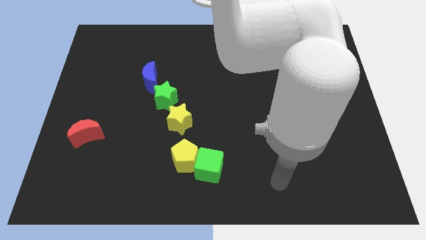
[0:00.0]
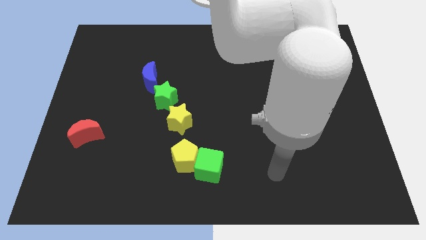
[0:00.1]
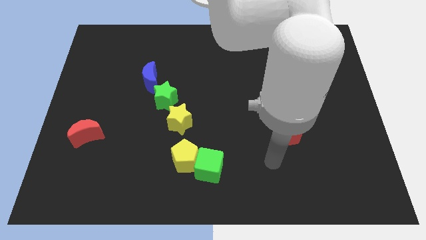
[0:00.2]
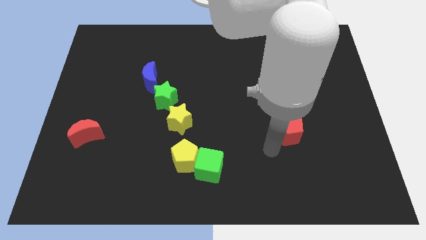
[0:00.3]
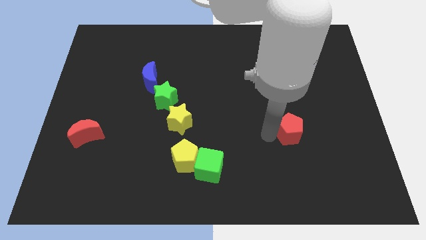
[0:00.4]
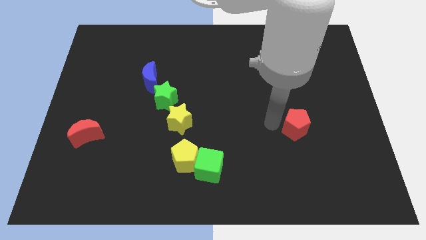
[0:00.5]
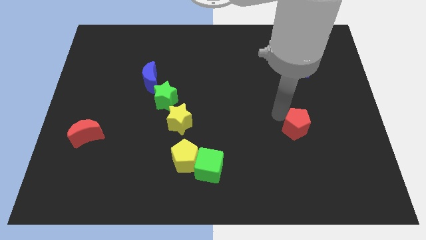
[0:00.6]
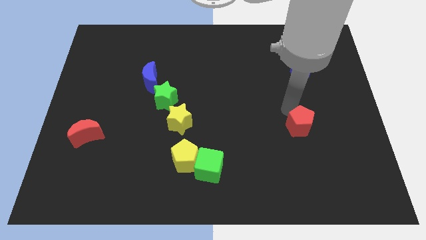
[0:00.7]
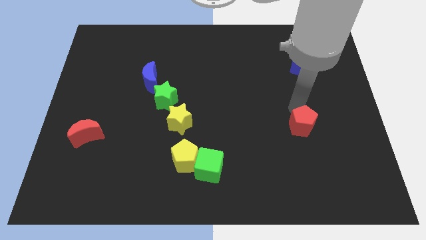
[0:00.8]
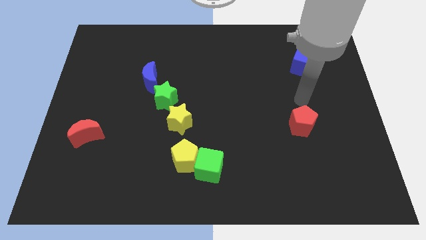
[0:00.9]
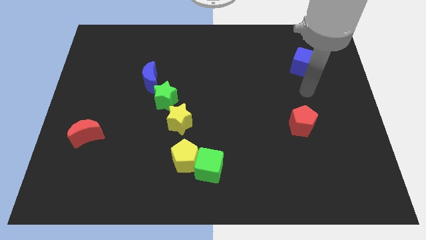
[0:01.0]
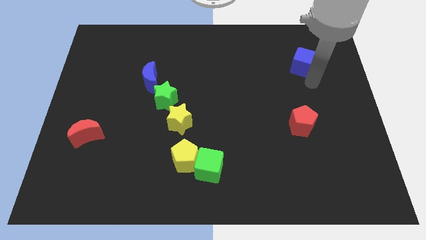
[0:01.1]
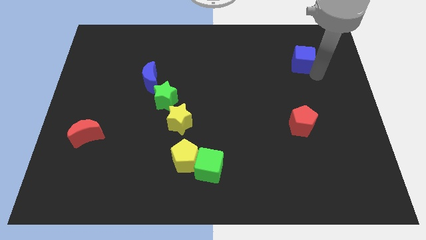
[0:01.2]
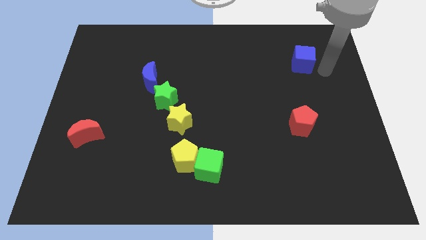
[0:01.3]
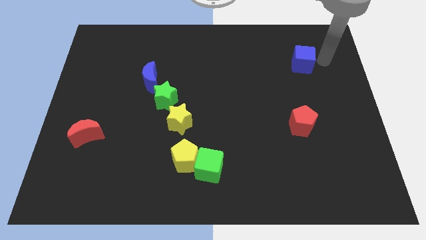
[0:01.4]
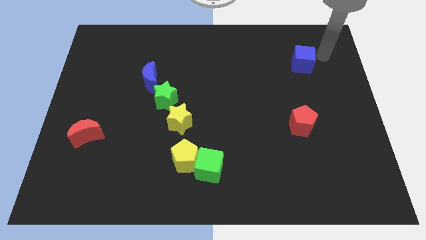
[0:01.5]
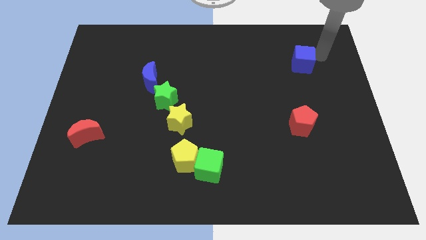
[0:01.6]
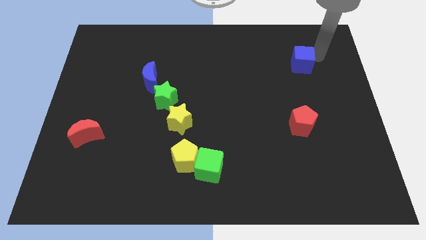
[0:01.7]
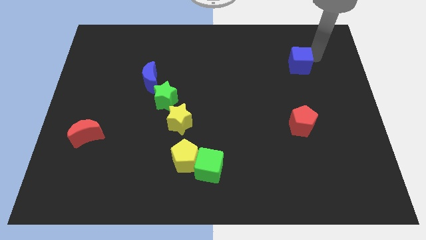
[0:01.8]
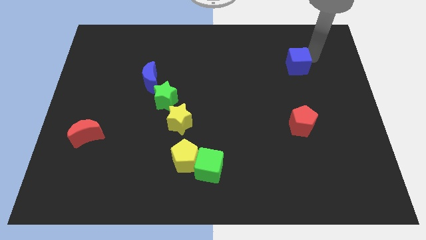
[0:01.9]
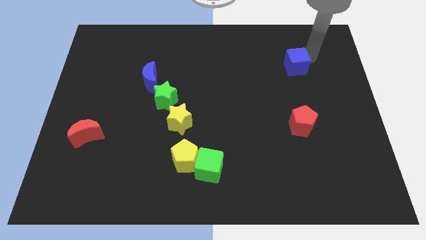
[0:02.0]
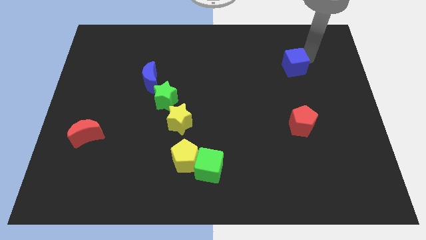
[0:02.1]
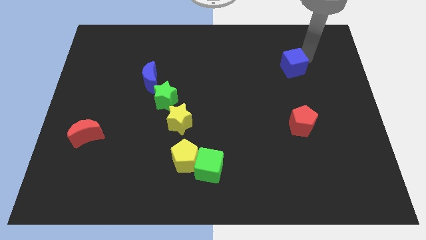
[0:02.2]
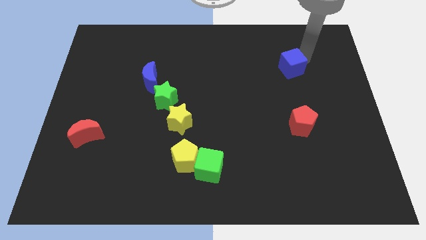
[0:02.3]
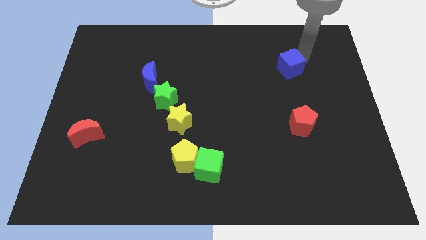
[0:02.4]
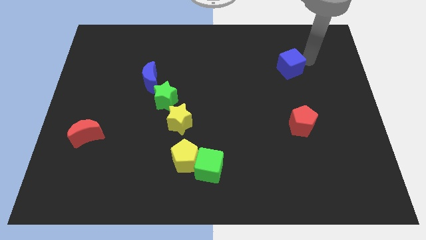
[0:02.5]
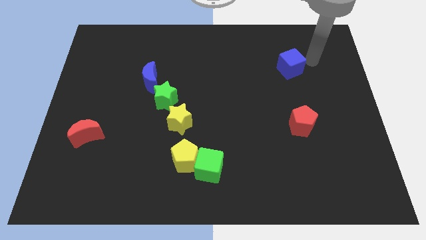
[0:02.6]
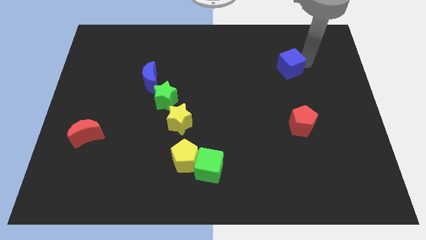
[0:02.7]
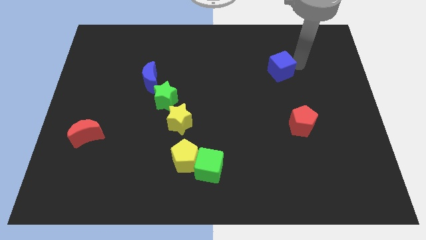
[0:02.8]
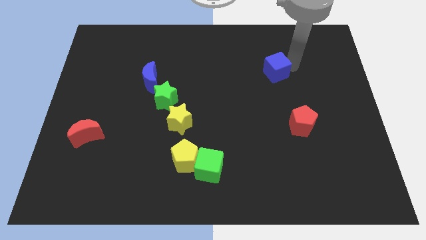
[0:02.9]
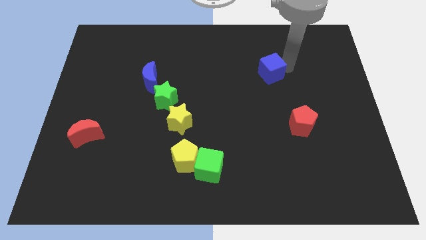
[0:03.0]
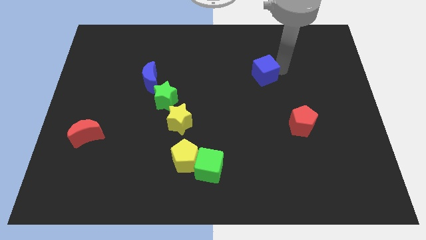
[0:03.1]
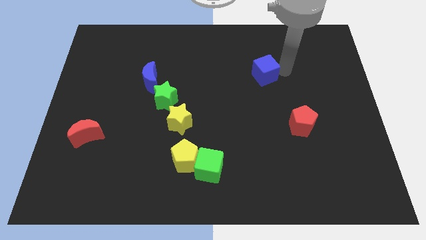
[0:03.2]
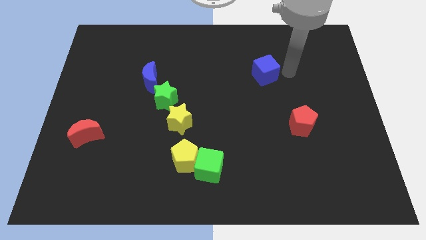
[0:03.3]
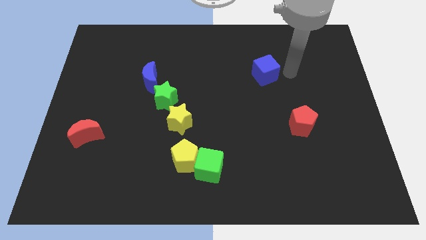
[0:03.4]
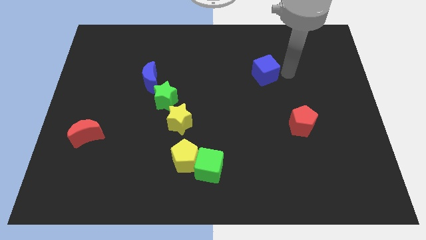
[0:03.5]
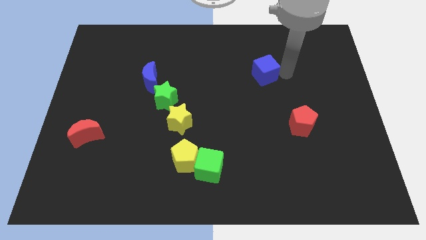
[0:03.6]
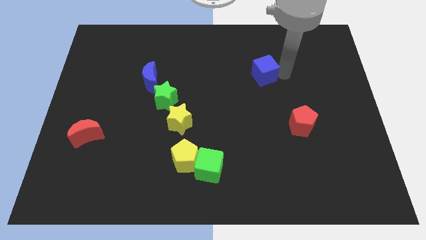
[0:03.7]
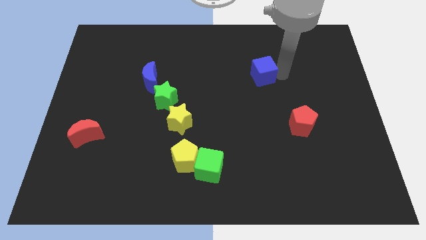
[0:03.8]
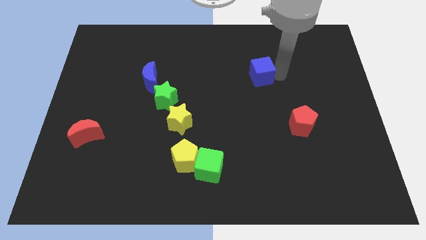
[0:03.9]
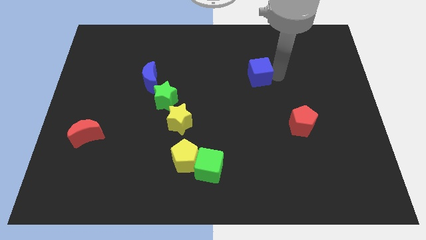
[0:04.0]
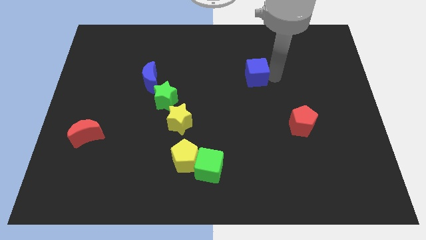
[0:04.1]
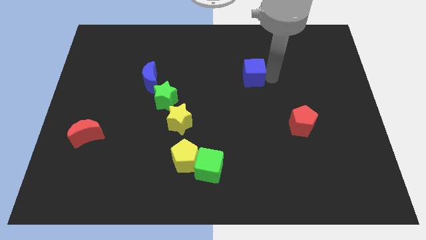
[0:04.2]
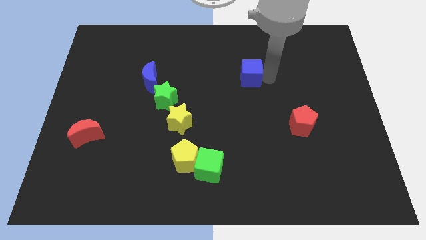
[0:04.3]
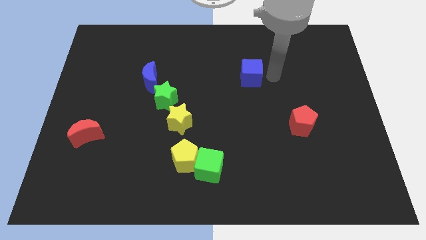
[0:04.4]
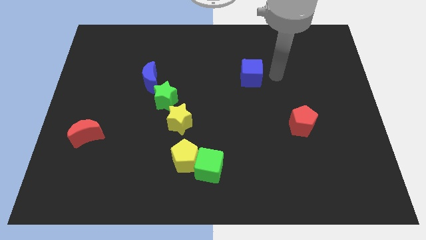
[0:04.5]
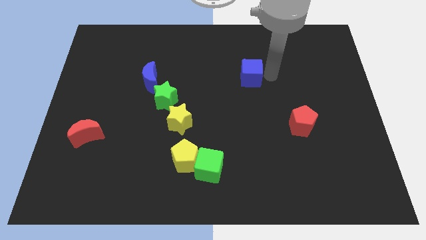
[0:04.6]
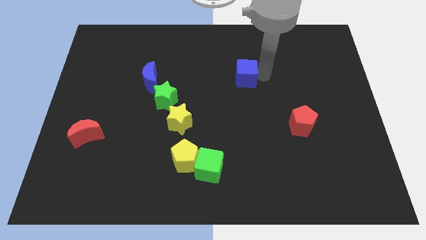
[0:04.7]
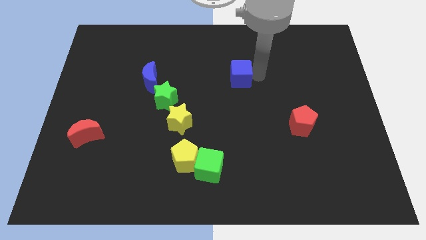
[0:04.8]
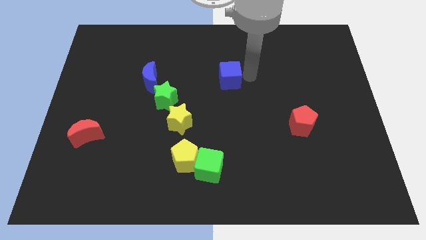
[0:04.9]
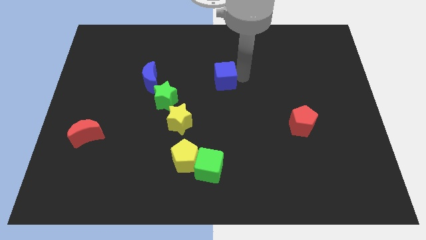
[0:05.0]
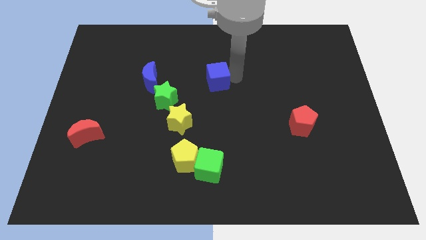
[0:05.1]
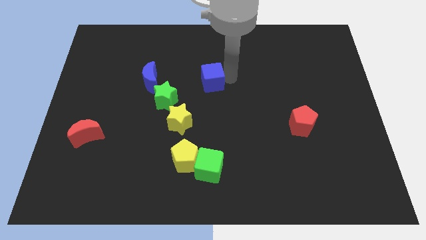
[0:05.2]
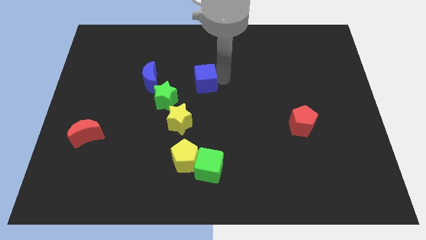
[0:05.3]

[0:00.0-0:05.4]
move the blue cube diagonally up and to the right of the green star

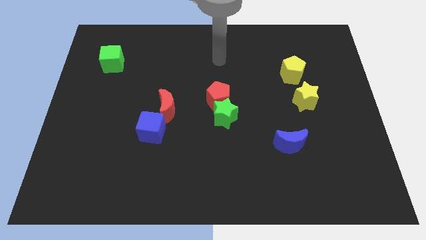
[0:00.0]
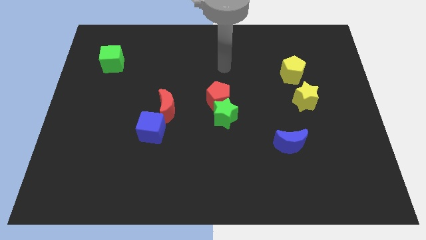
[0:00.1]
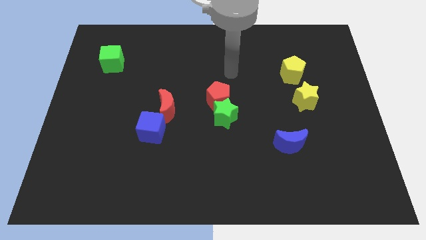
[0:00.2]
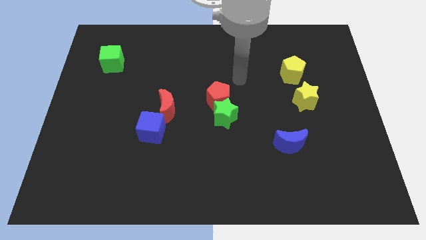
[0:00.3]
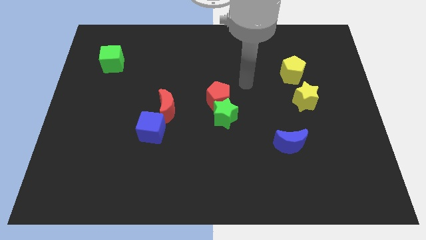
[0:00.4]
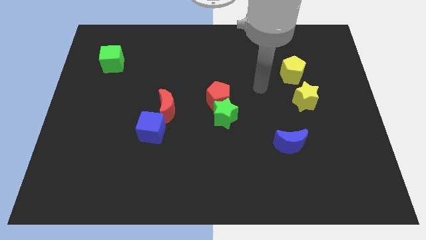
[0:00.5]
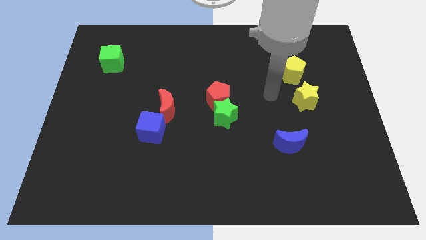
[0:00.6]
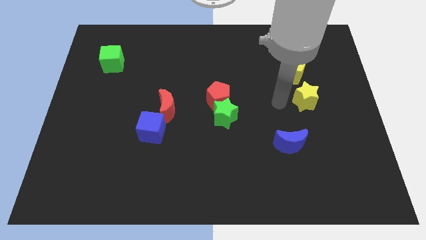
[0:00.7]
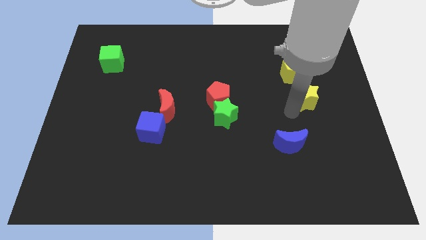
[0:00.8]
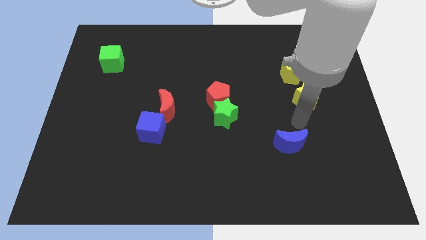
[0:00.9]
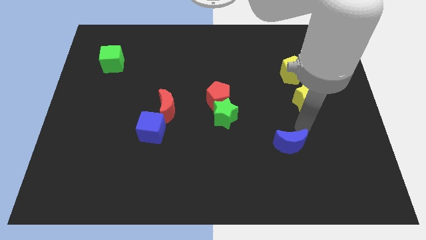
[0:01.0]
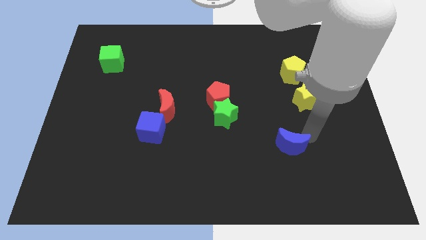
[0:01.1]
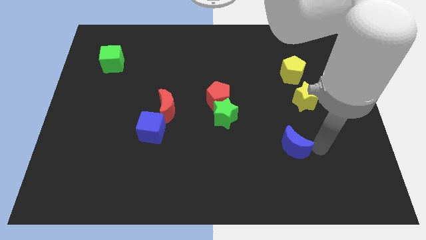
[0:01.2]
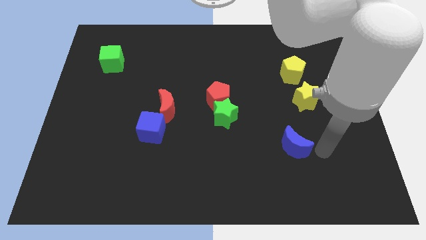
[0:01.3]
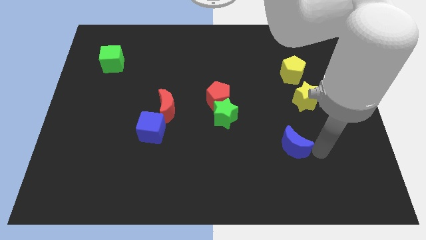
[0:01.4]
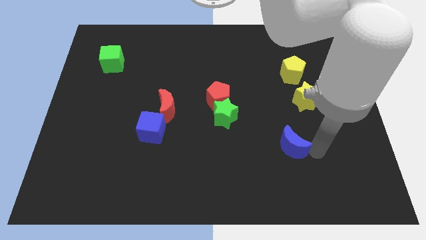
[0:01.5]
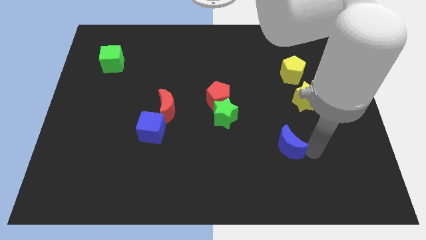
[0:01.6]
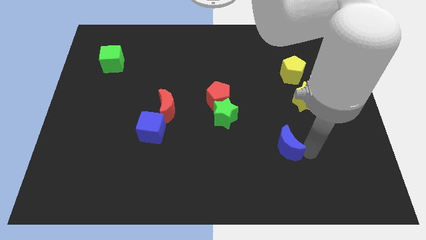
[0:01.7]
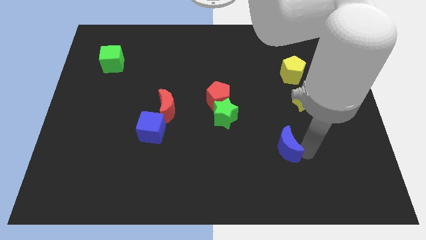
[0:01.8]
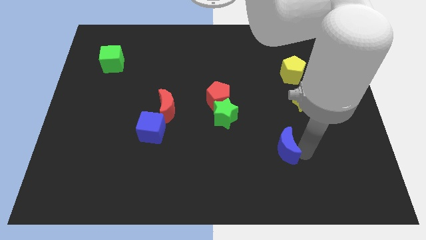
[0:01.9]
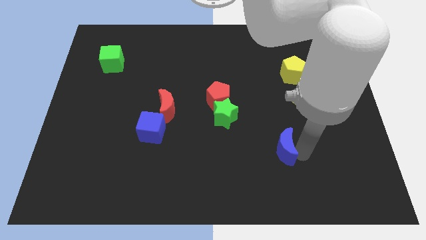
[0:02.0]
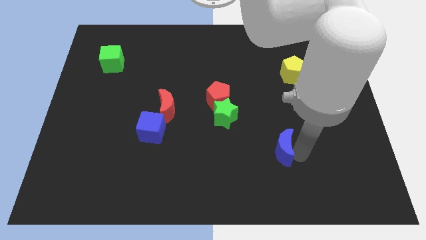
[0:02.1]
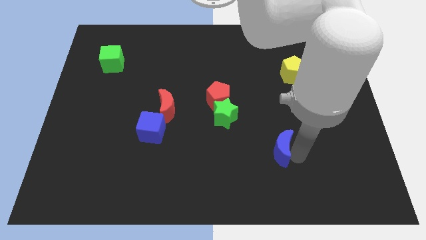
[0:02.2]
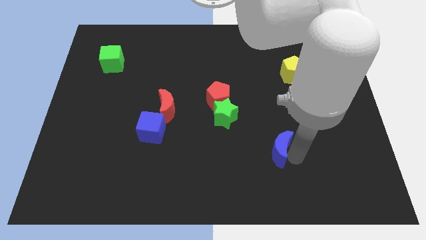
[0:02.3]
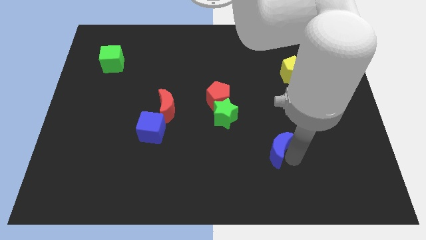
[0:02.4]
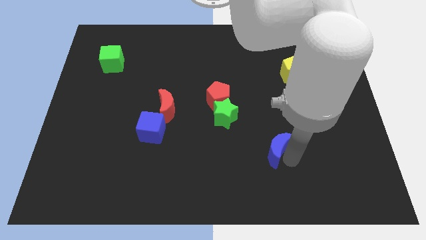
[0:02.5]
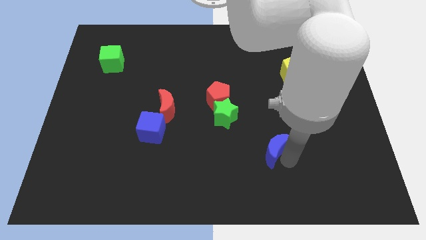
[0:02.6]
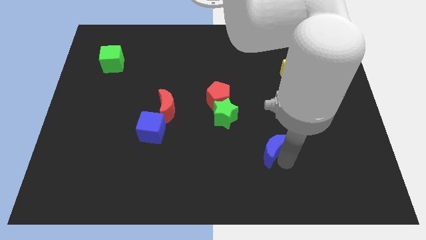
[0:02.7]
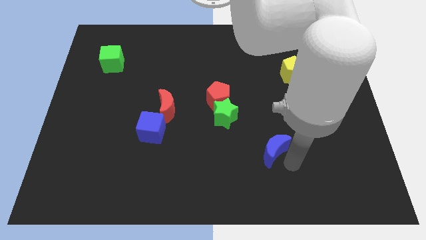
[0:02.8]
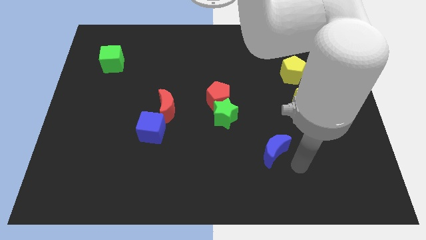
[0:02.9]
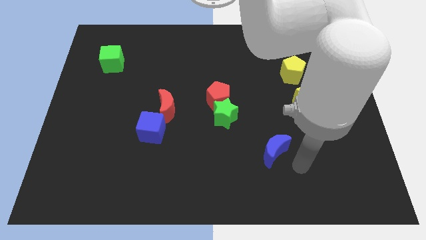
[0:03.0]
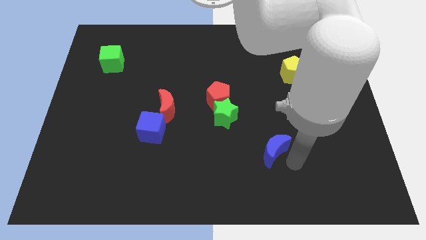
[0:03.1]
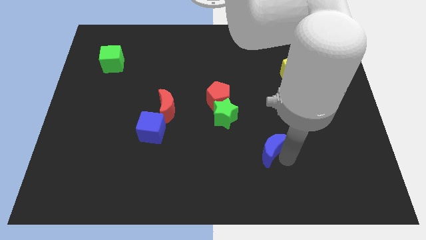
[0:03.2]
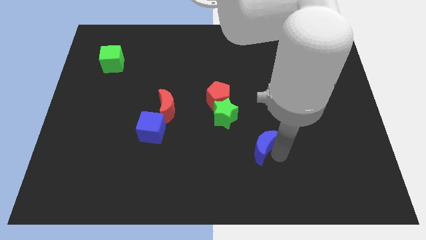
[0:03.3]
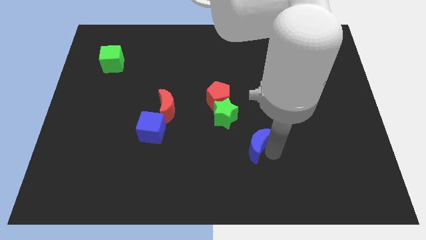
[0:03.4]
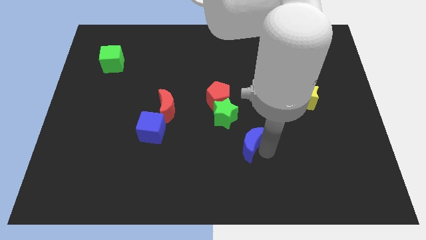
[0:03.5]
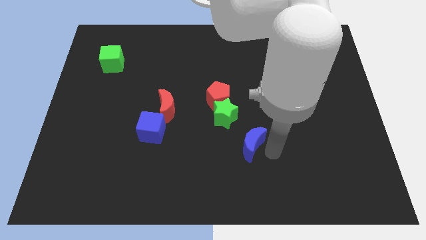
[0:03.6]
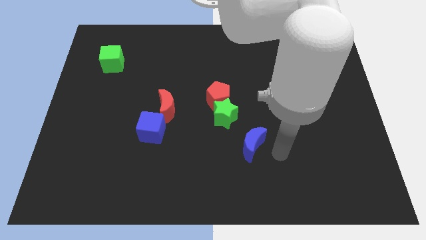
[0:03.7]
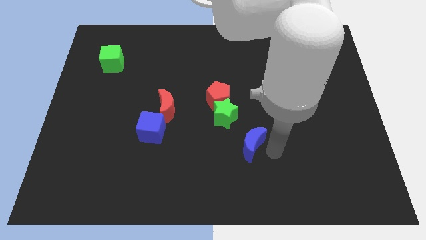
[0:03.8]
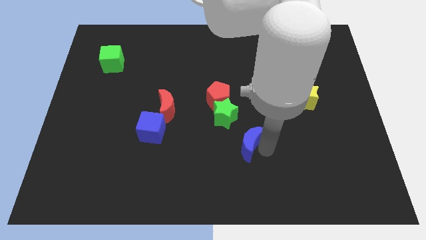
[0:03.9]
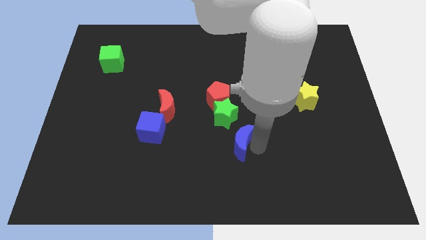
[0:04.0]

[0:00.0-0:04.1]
slide the blue moon below the red pentagon
